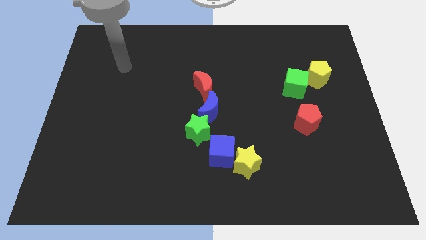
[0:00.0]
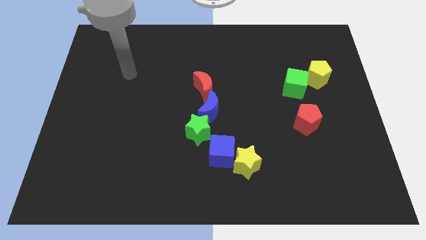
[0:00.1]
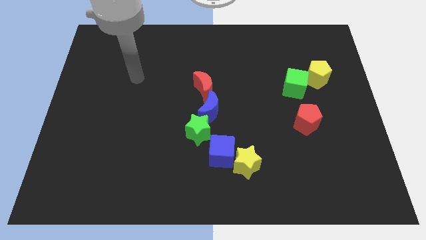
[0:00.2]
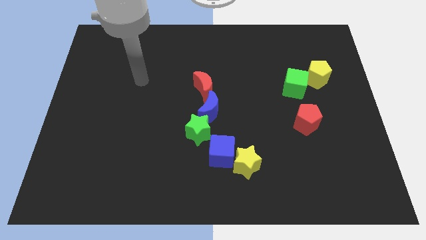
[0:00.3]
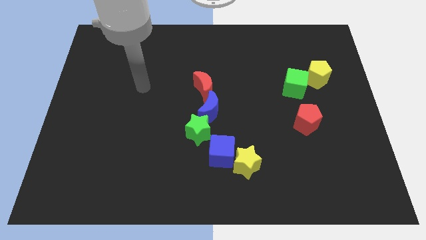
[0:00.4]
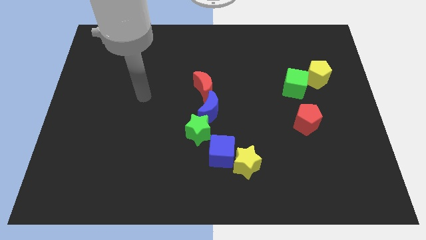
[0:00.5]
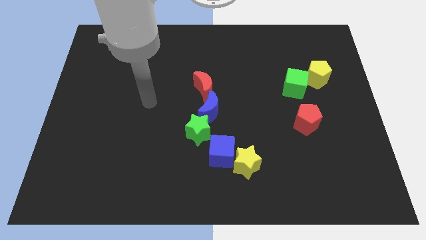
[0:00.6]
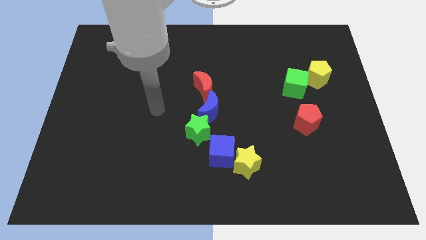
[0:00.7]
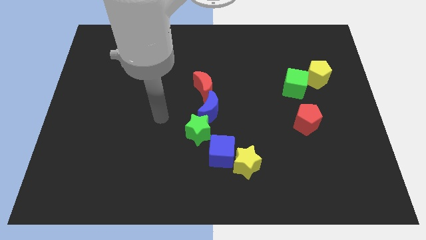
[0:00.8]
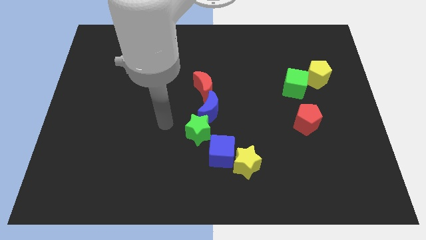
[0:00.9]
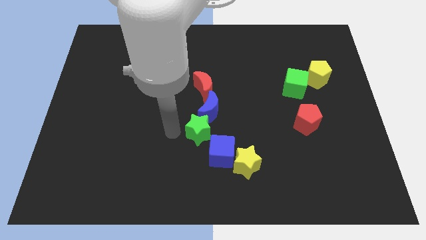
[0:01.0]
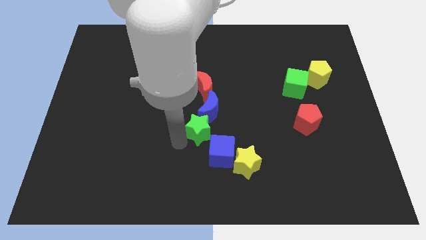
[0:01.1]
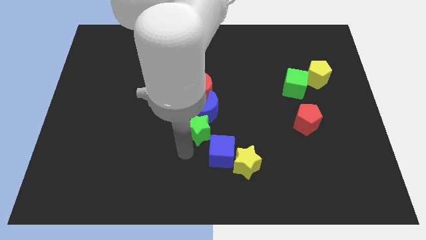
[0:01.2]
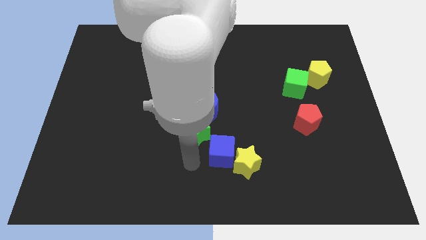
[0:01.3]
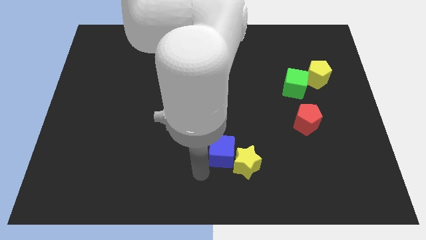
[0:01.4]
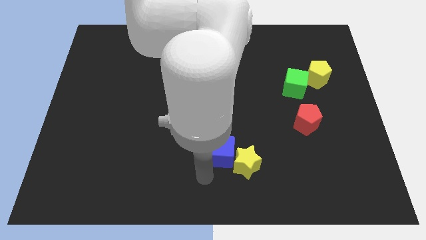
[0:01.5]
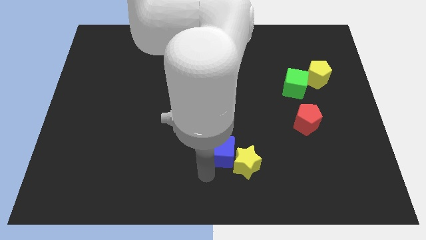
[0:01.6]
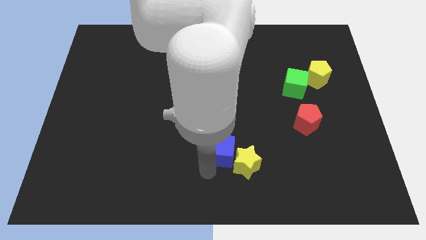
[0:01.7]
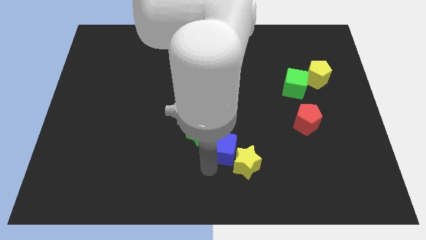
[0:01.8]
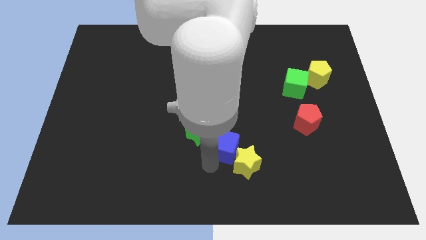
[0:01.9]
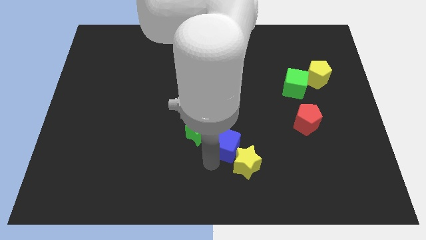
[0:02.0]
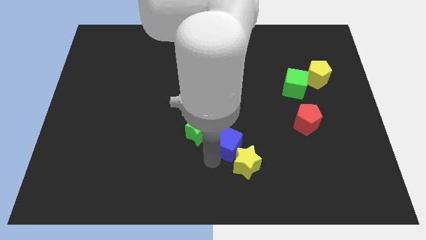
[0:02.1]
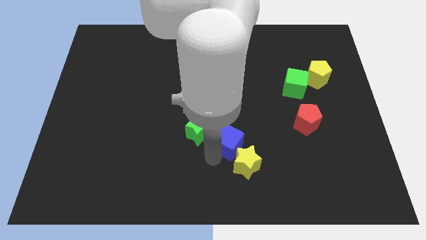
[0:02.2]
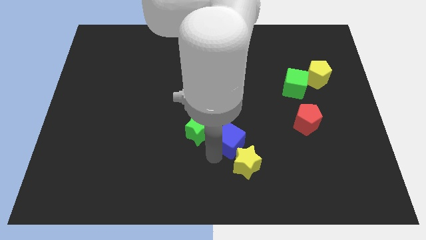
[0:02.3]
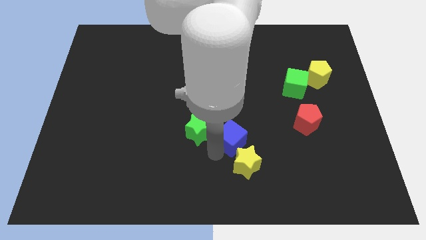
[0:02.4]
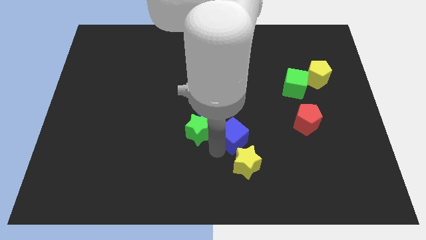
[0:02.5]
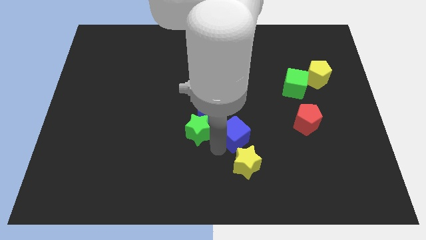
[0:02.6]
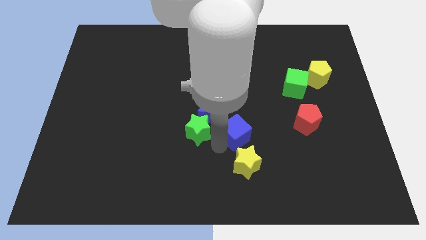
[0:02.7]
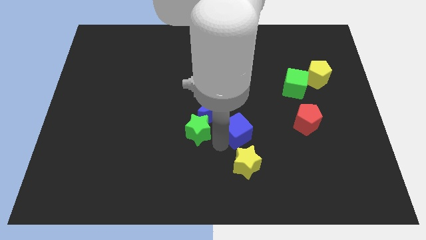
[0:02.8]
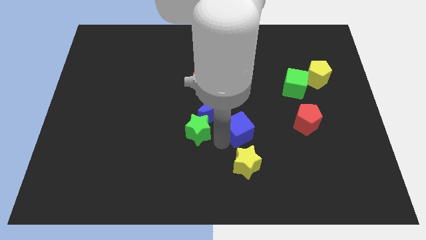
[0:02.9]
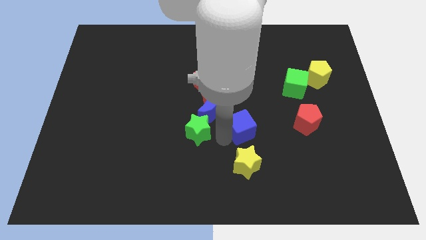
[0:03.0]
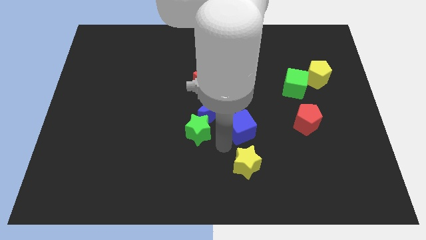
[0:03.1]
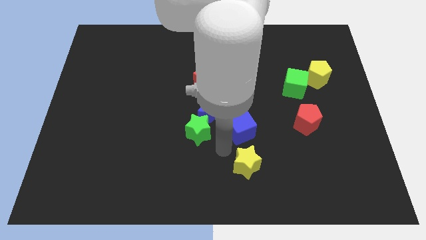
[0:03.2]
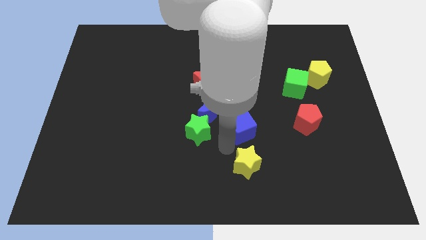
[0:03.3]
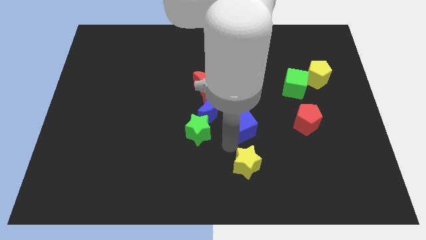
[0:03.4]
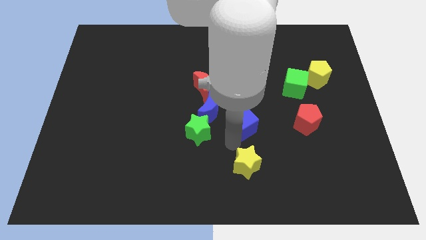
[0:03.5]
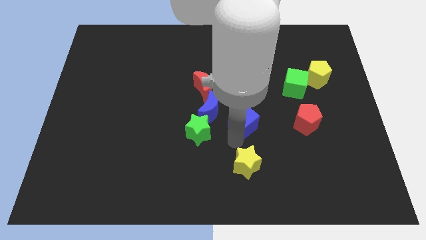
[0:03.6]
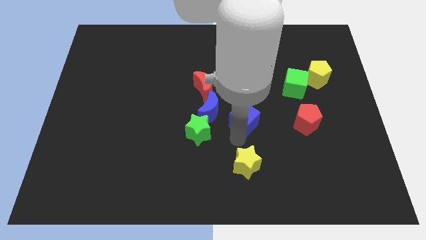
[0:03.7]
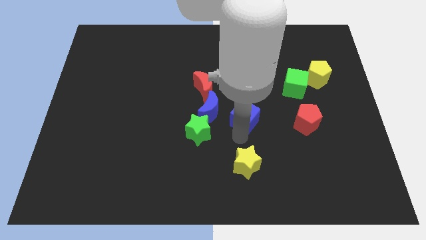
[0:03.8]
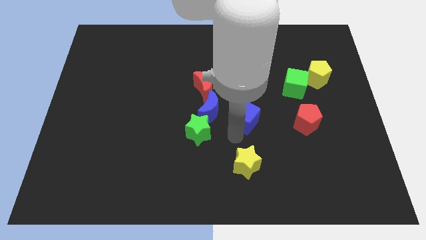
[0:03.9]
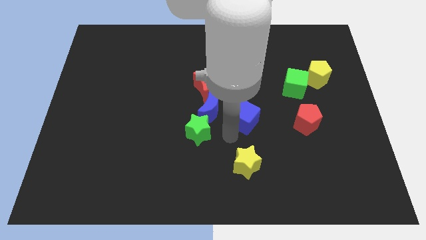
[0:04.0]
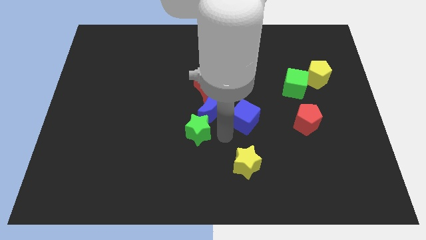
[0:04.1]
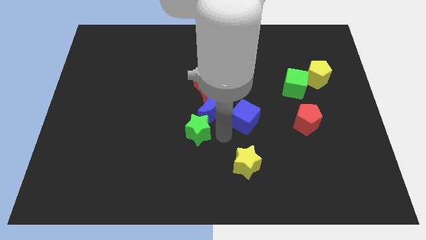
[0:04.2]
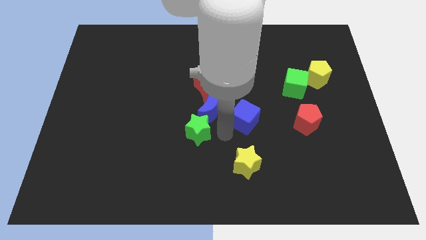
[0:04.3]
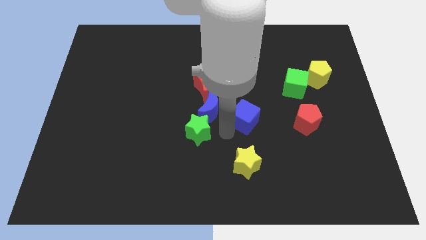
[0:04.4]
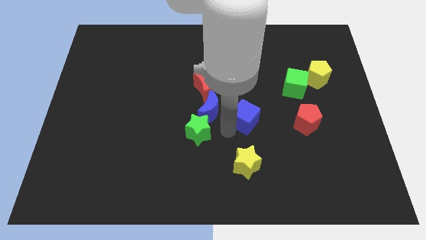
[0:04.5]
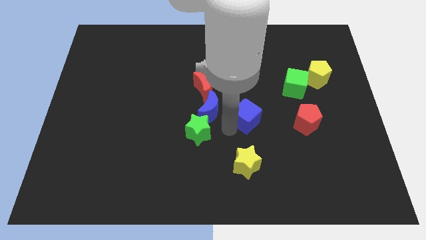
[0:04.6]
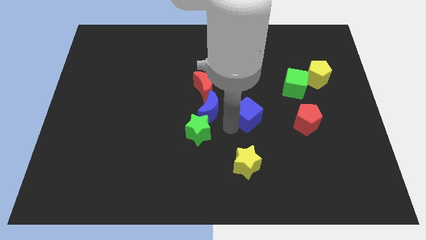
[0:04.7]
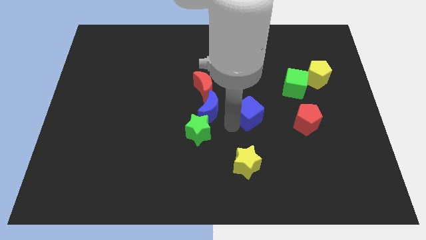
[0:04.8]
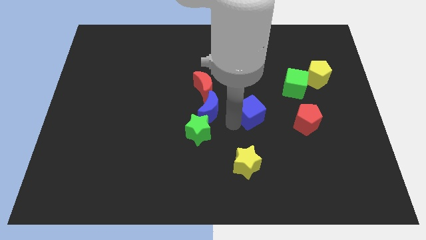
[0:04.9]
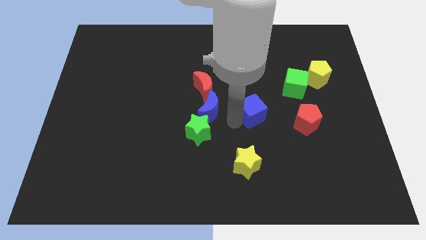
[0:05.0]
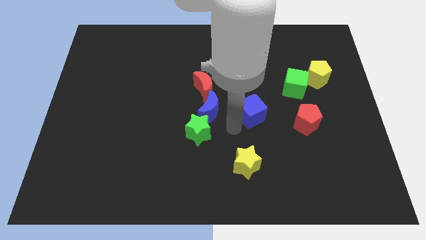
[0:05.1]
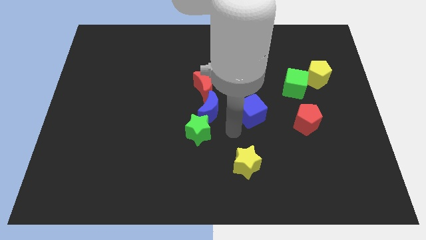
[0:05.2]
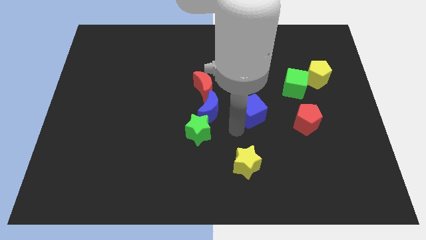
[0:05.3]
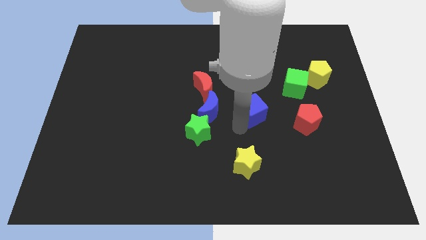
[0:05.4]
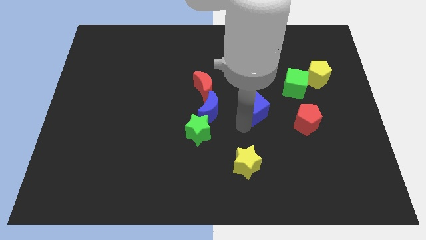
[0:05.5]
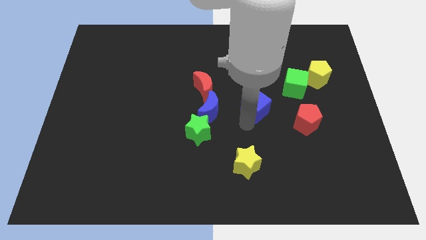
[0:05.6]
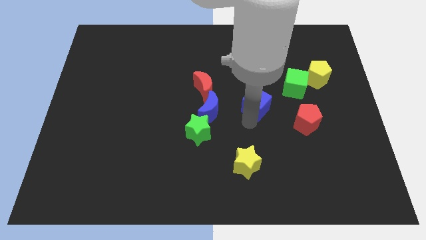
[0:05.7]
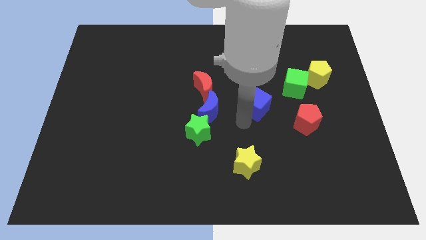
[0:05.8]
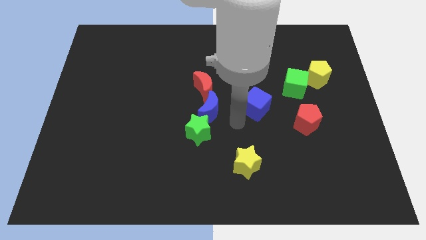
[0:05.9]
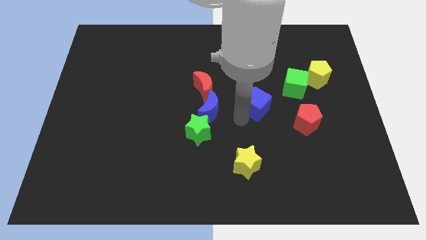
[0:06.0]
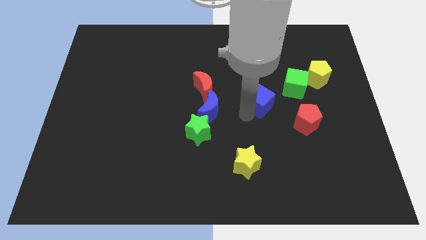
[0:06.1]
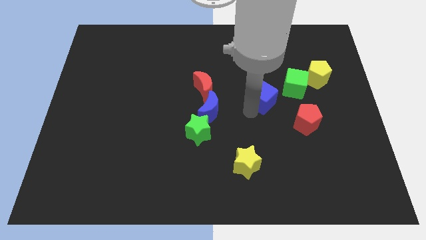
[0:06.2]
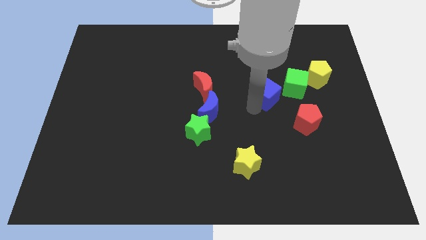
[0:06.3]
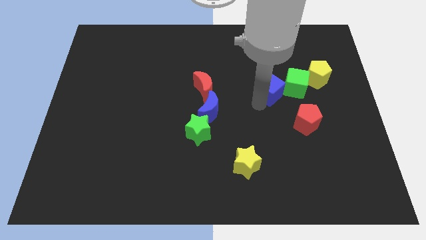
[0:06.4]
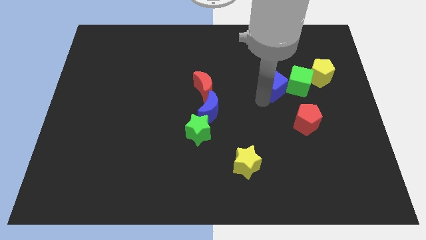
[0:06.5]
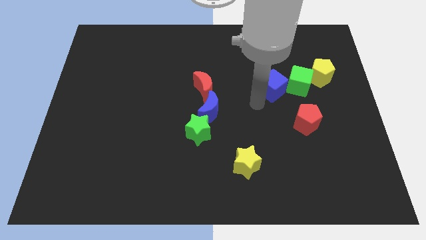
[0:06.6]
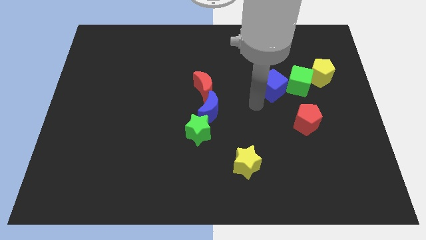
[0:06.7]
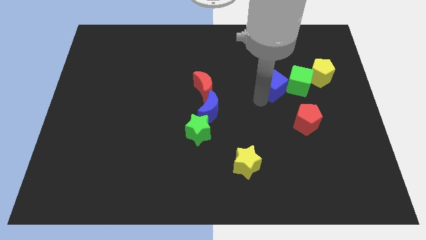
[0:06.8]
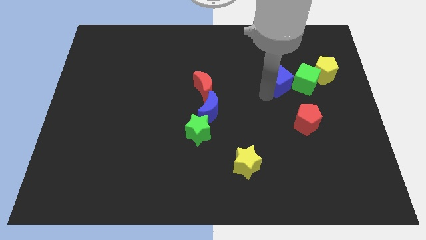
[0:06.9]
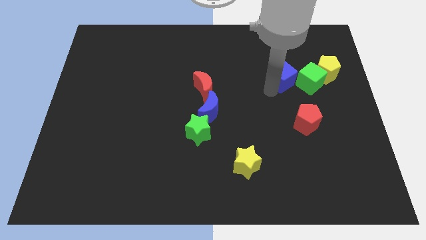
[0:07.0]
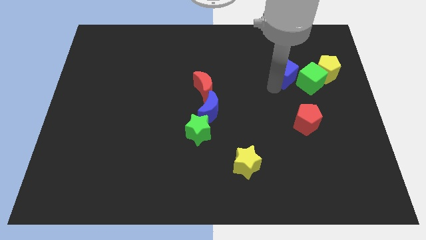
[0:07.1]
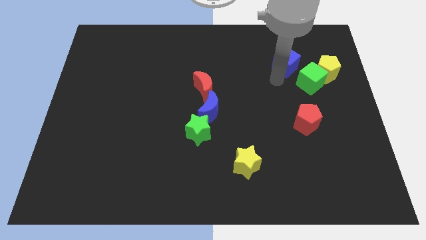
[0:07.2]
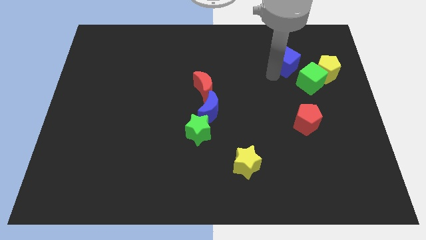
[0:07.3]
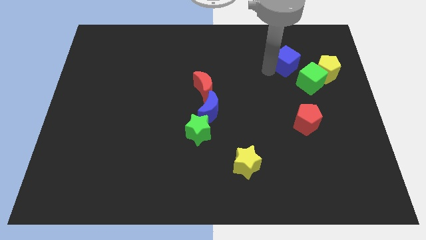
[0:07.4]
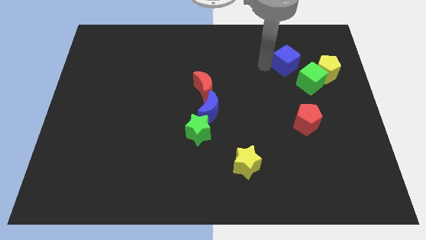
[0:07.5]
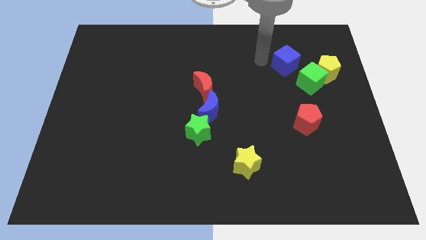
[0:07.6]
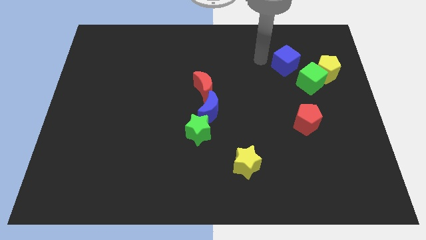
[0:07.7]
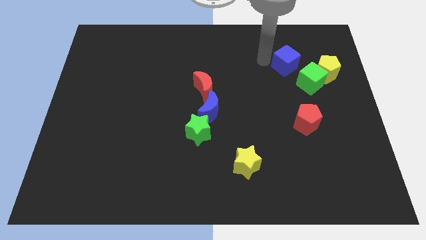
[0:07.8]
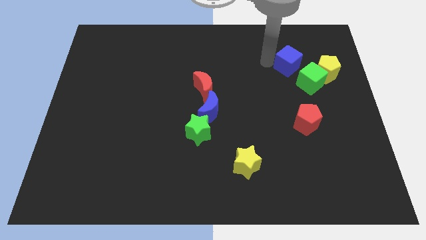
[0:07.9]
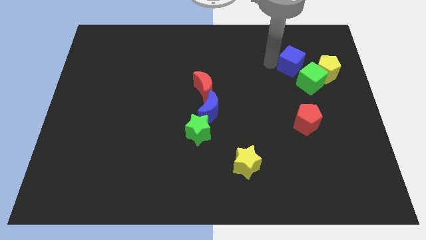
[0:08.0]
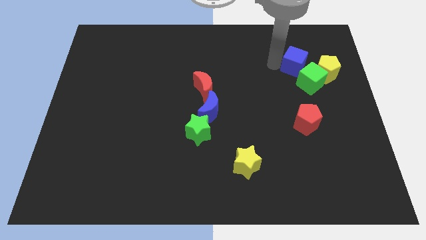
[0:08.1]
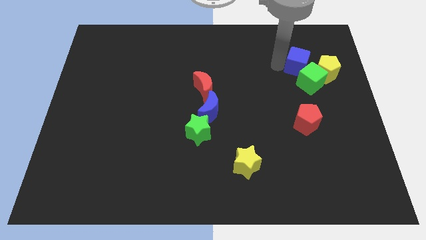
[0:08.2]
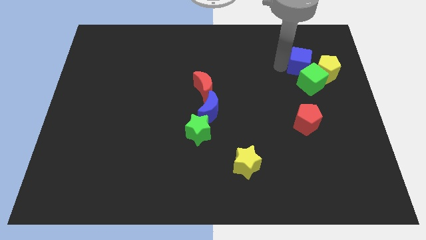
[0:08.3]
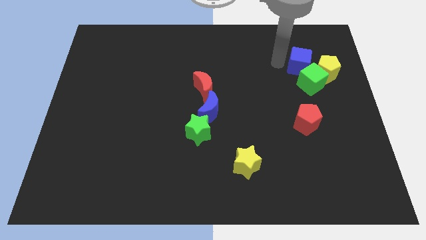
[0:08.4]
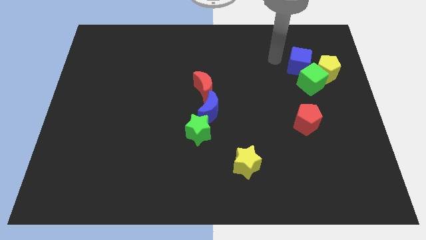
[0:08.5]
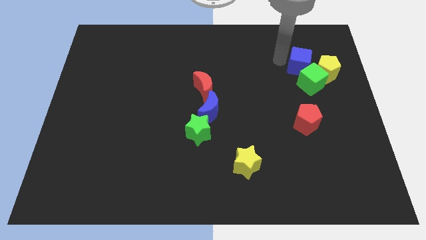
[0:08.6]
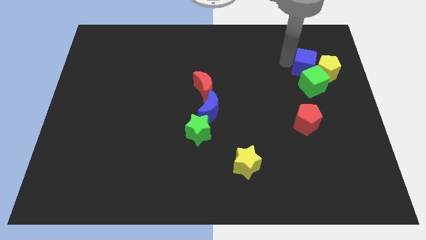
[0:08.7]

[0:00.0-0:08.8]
move the blue cube next to the yellow pentagon
